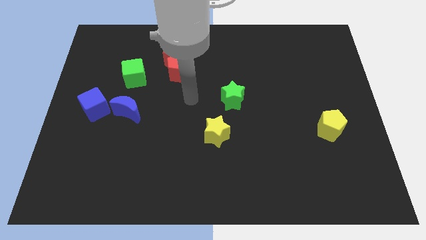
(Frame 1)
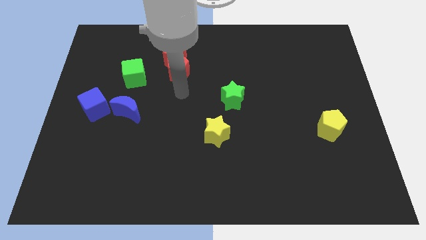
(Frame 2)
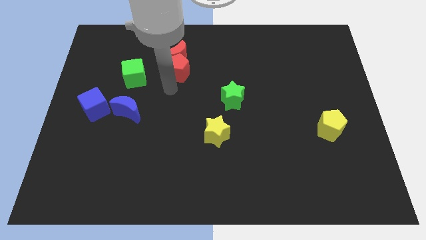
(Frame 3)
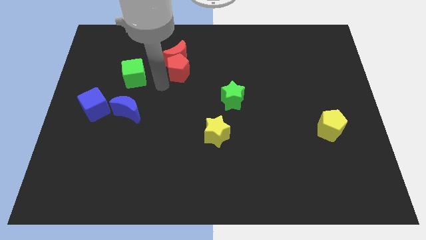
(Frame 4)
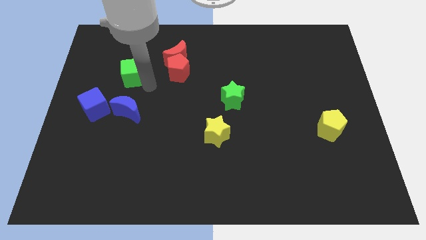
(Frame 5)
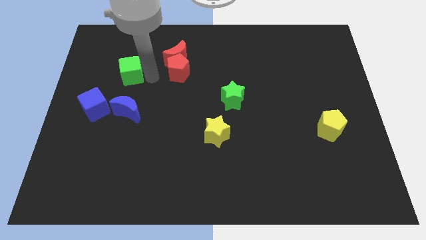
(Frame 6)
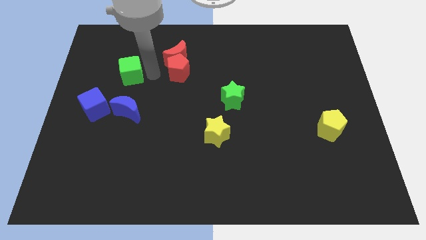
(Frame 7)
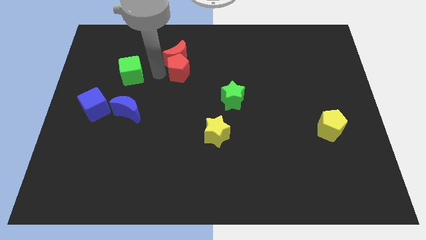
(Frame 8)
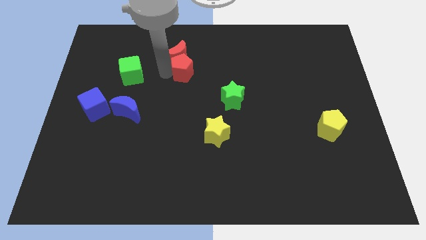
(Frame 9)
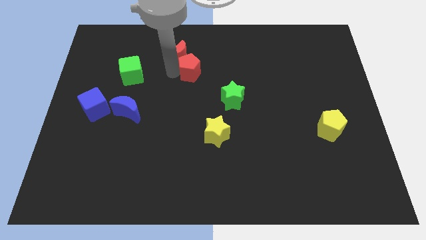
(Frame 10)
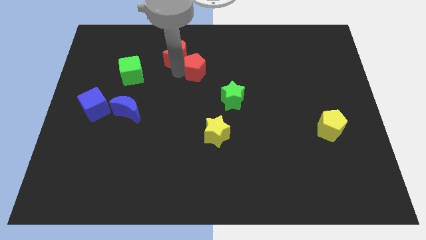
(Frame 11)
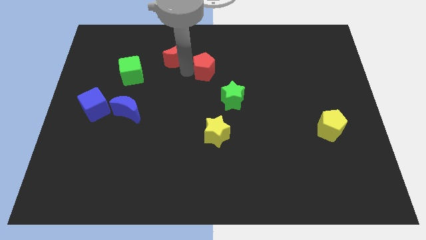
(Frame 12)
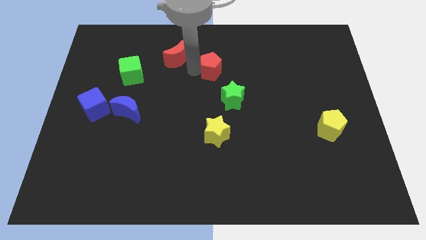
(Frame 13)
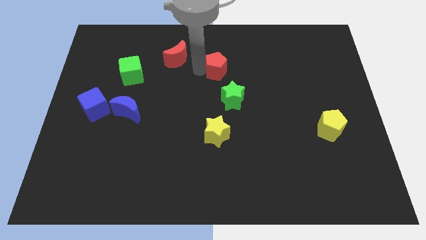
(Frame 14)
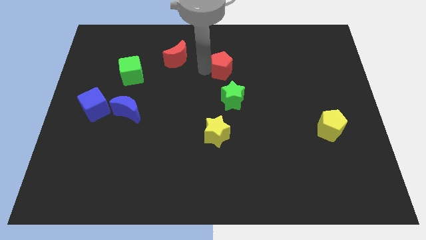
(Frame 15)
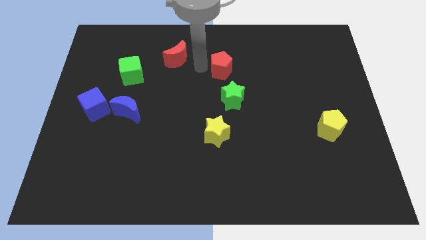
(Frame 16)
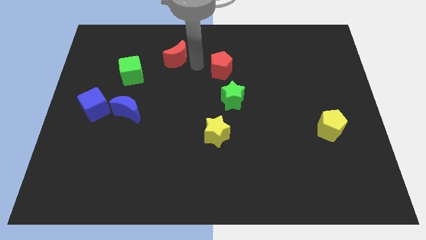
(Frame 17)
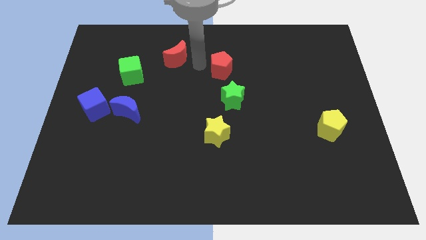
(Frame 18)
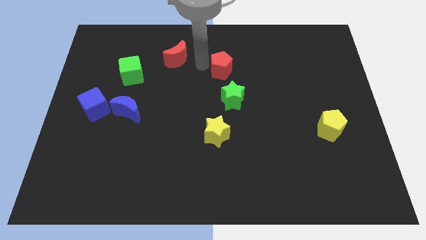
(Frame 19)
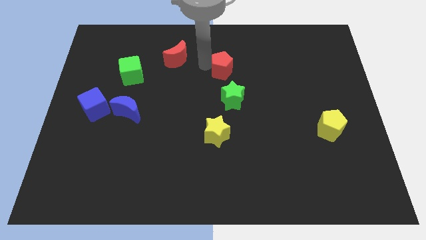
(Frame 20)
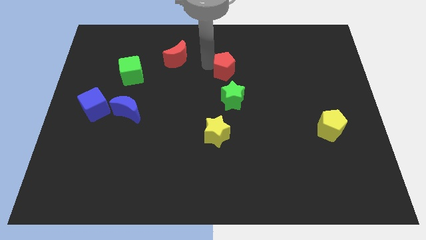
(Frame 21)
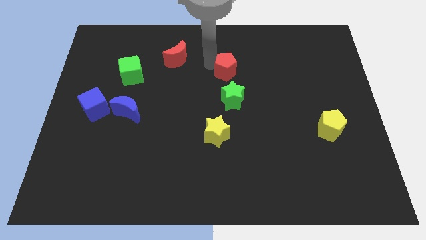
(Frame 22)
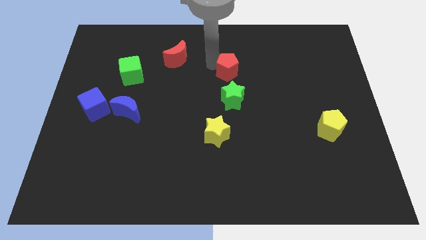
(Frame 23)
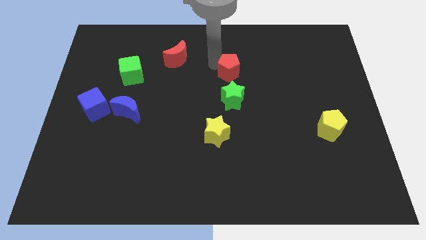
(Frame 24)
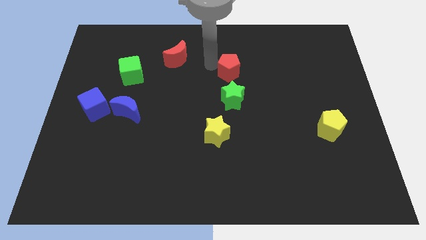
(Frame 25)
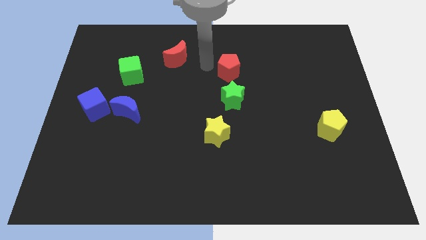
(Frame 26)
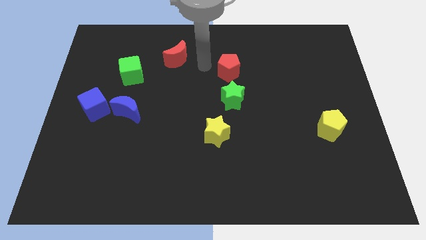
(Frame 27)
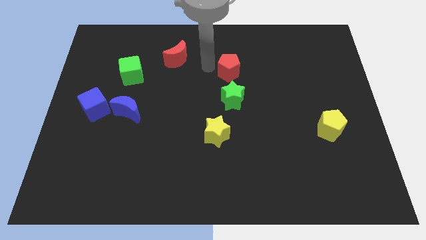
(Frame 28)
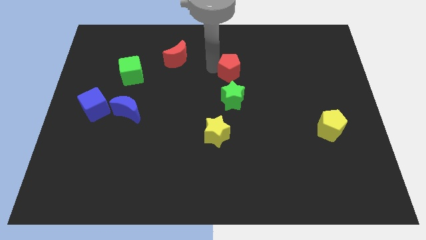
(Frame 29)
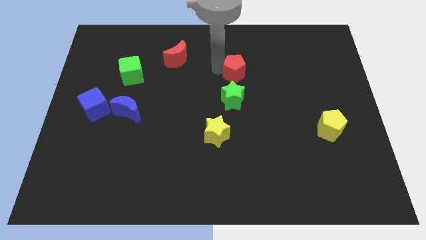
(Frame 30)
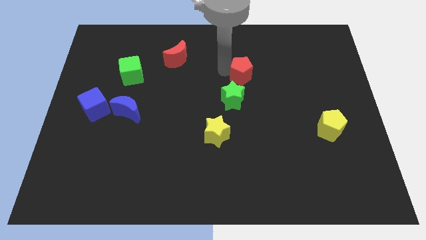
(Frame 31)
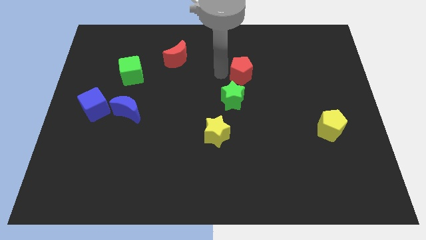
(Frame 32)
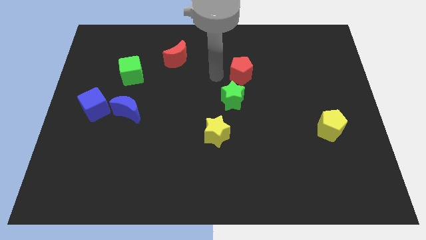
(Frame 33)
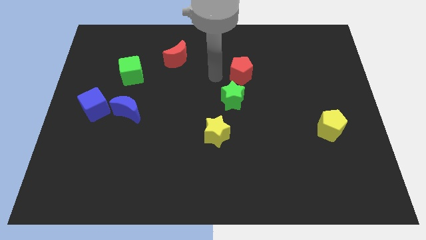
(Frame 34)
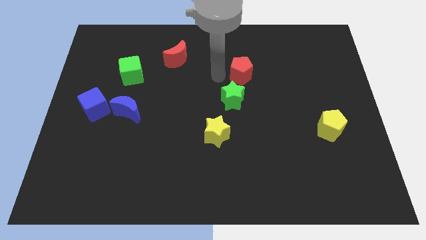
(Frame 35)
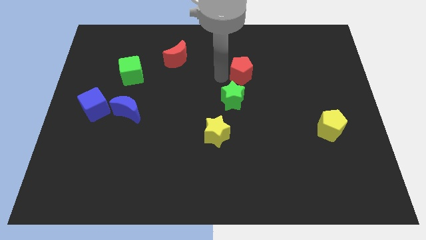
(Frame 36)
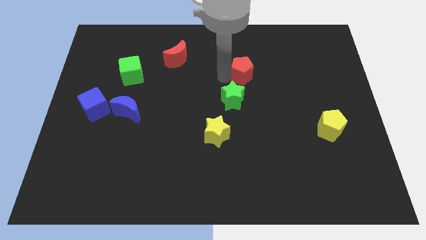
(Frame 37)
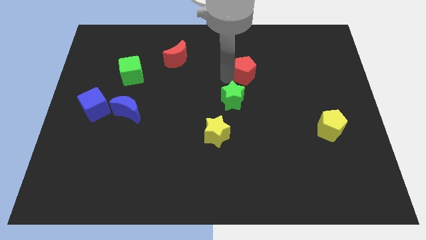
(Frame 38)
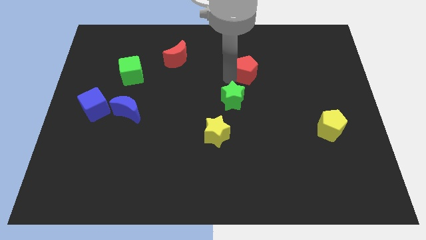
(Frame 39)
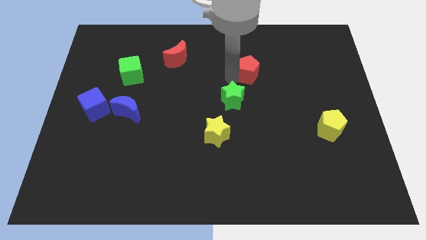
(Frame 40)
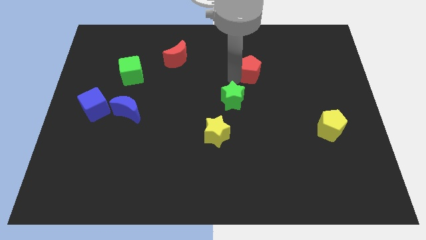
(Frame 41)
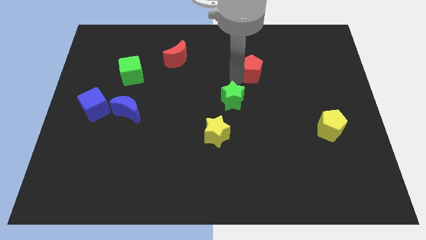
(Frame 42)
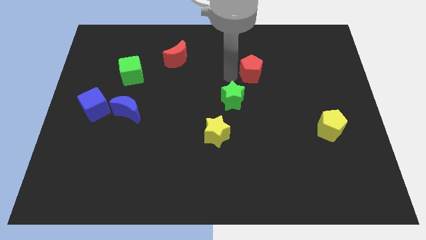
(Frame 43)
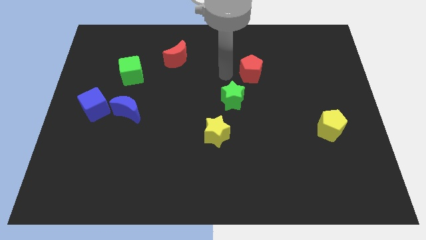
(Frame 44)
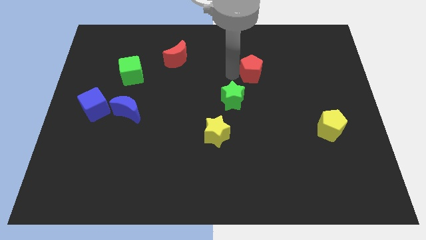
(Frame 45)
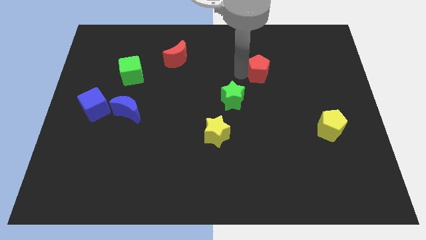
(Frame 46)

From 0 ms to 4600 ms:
move the red pentagon right

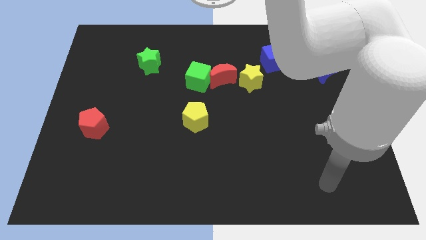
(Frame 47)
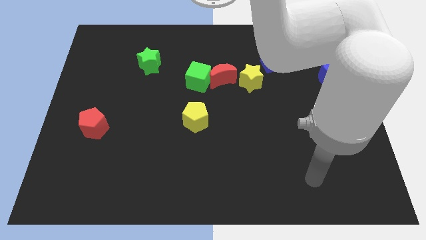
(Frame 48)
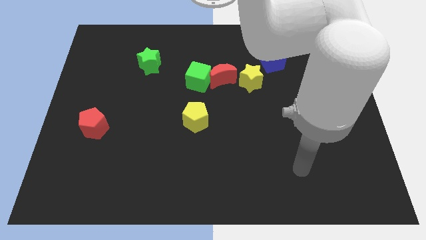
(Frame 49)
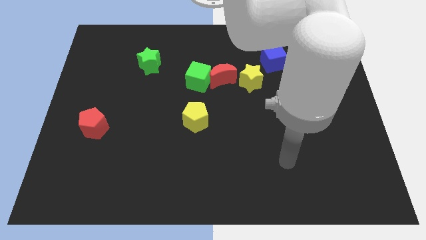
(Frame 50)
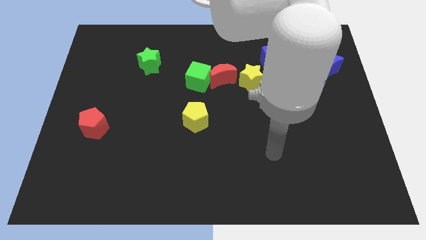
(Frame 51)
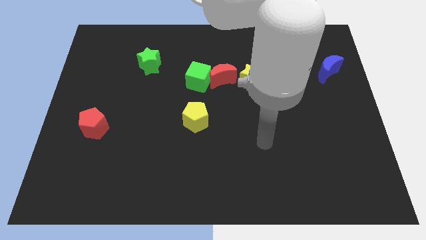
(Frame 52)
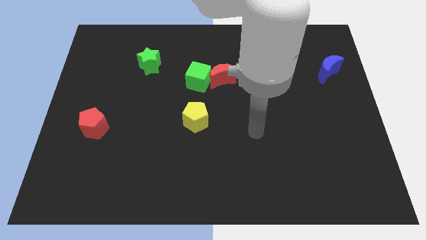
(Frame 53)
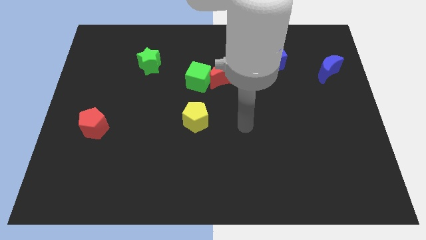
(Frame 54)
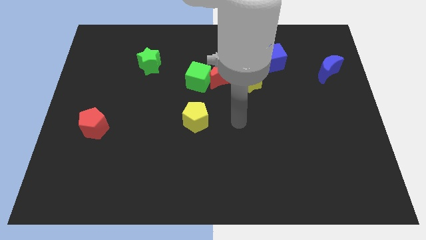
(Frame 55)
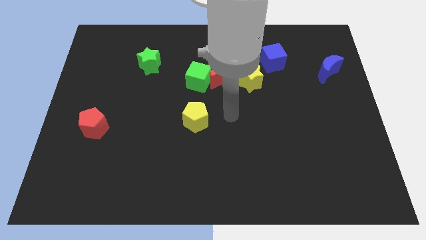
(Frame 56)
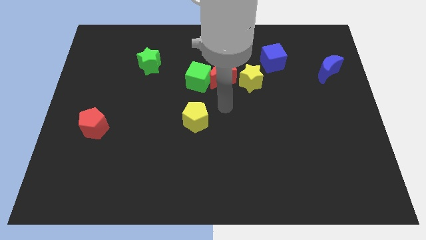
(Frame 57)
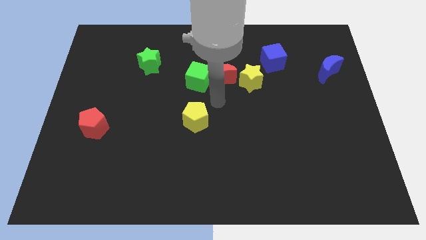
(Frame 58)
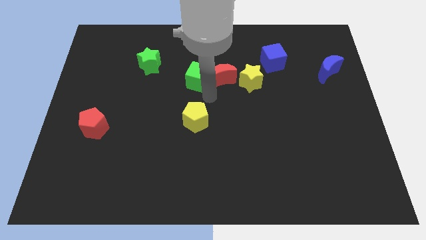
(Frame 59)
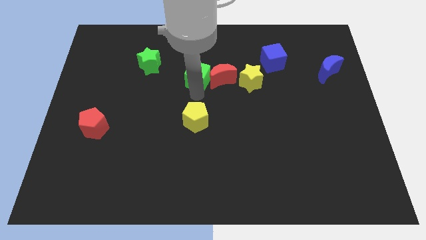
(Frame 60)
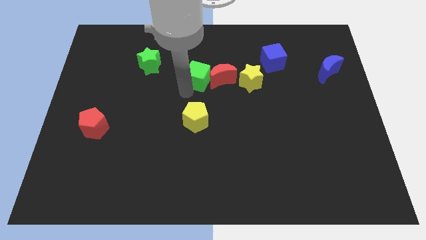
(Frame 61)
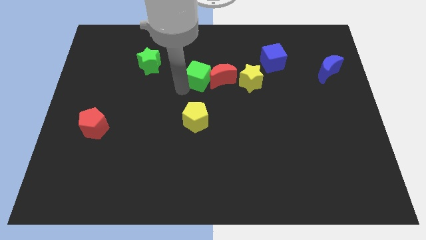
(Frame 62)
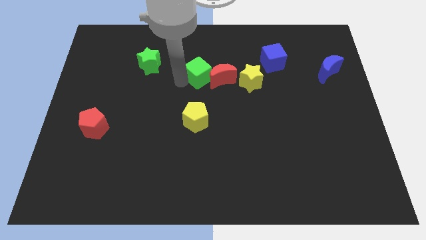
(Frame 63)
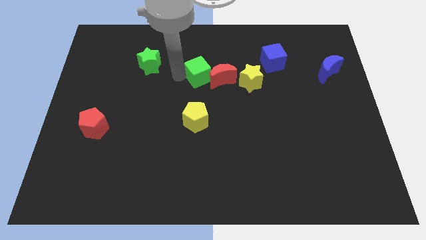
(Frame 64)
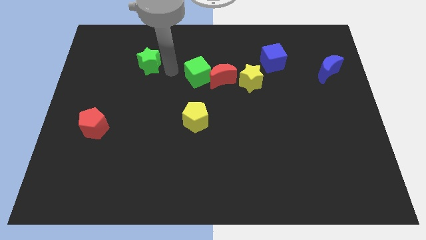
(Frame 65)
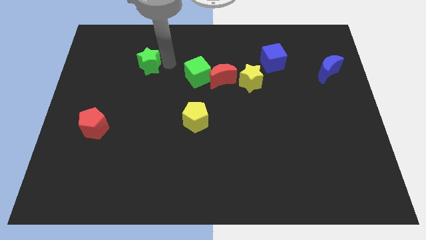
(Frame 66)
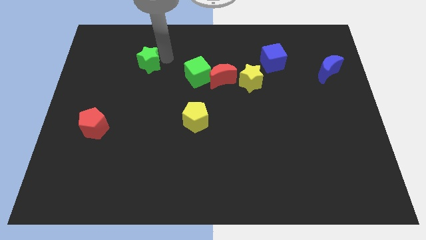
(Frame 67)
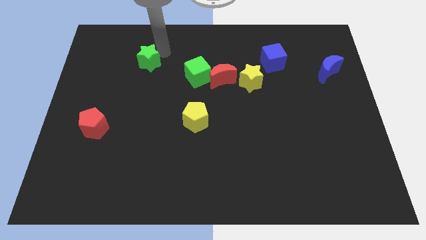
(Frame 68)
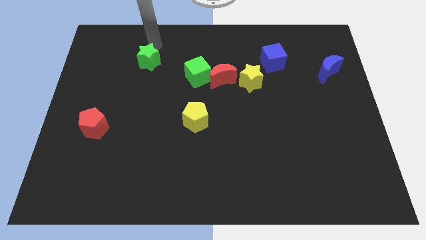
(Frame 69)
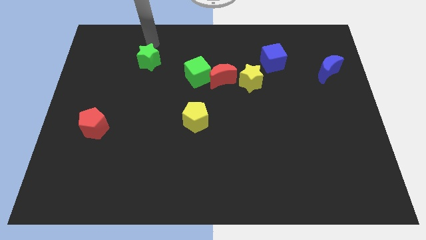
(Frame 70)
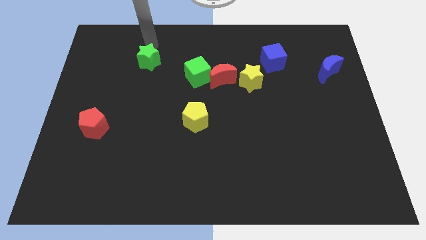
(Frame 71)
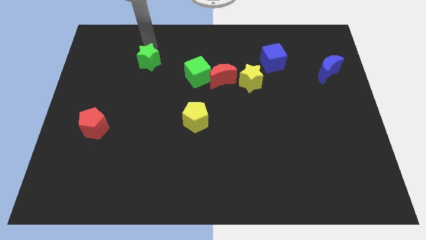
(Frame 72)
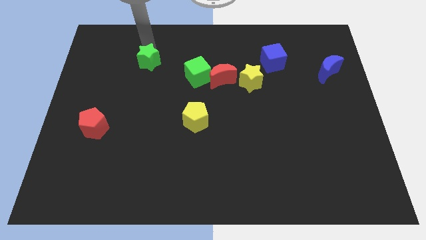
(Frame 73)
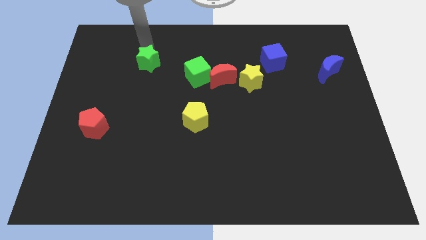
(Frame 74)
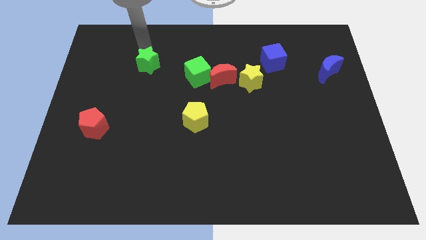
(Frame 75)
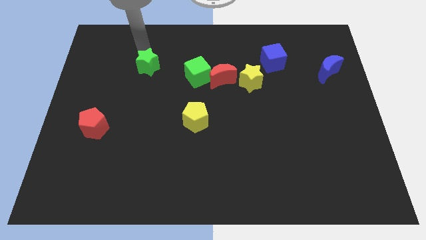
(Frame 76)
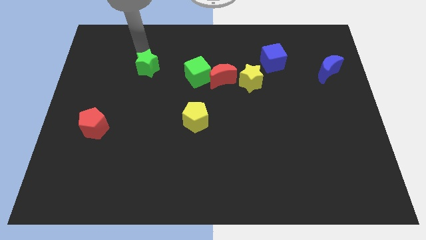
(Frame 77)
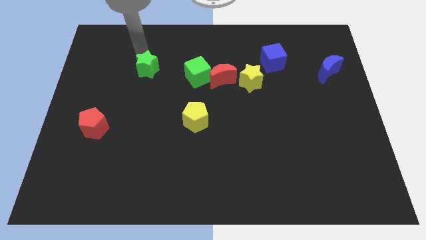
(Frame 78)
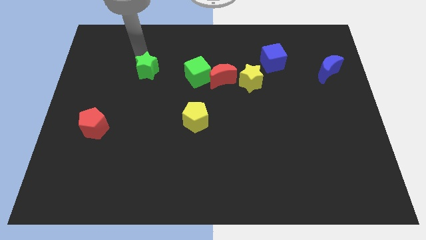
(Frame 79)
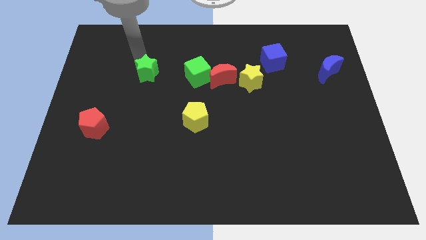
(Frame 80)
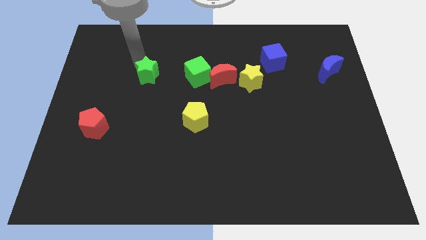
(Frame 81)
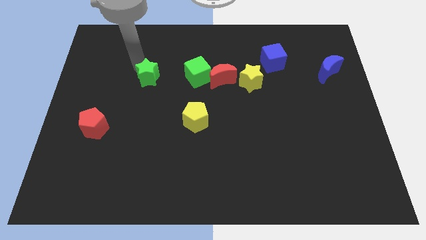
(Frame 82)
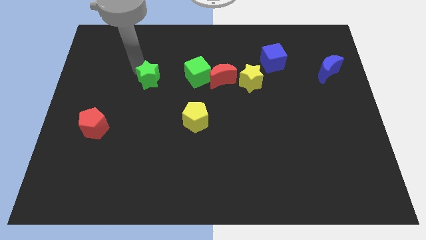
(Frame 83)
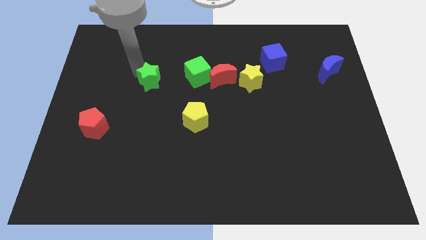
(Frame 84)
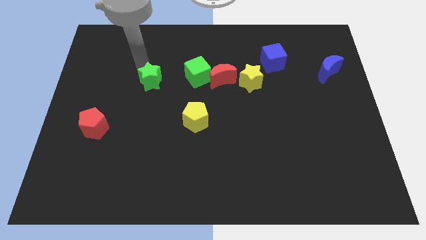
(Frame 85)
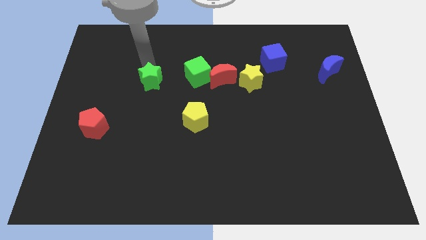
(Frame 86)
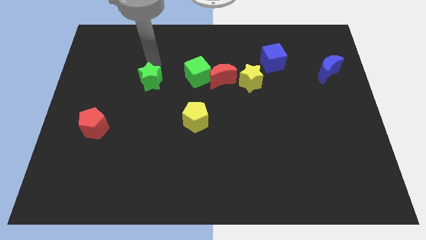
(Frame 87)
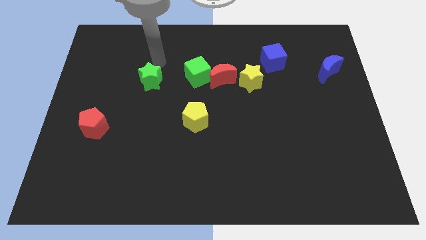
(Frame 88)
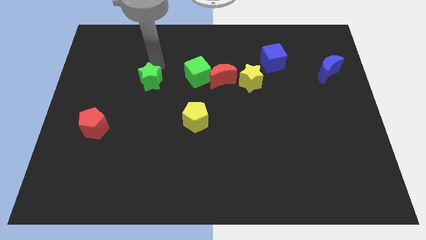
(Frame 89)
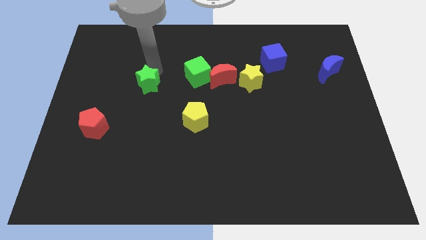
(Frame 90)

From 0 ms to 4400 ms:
push the green star a bit down
